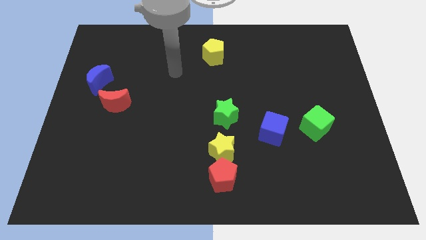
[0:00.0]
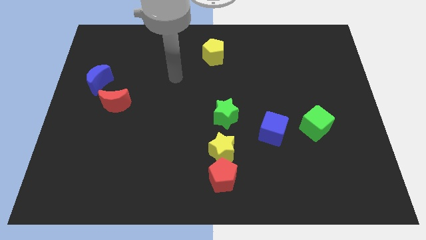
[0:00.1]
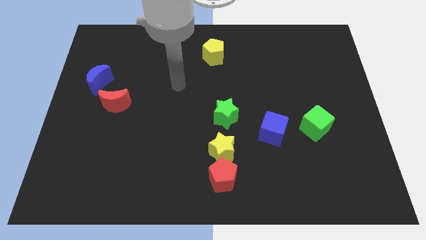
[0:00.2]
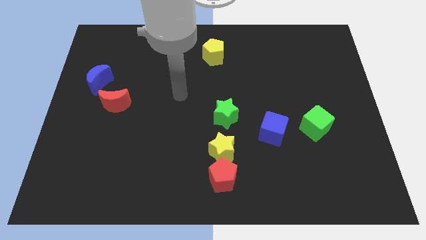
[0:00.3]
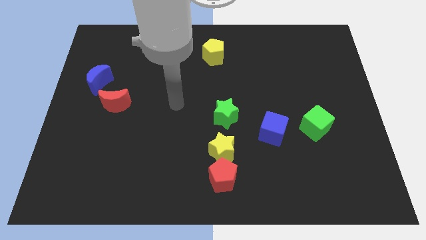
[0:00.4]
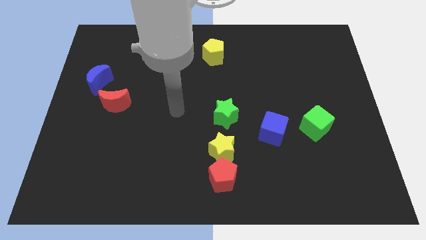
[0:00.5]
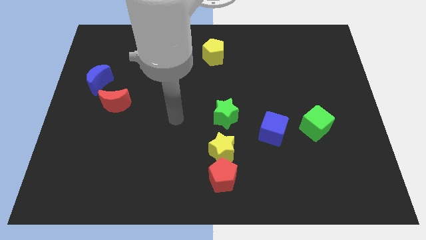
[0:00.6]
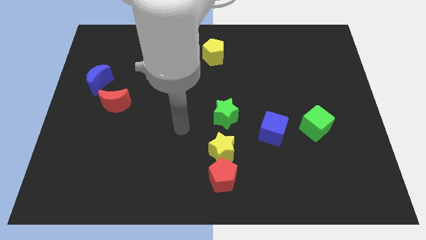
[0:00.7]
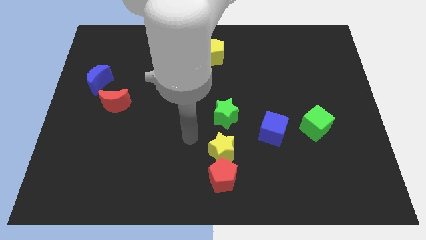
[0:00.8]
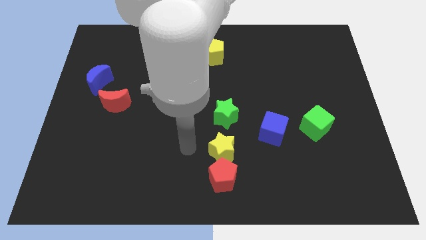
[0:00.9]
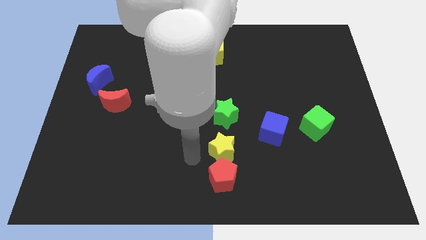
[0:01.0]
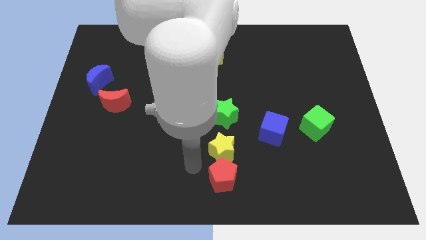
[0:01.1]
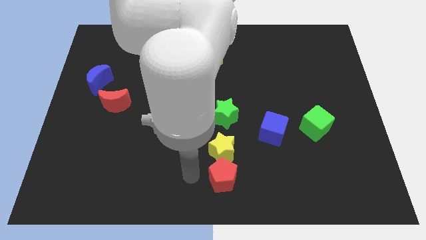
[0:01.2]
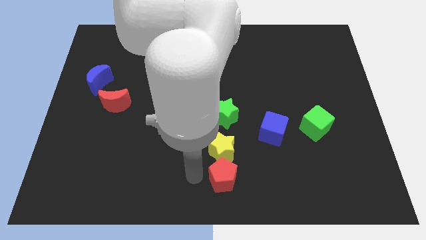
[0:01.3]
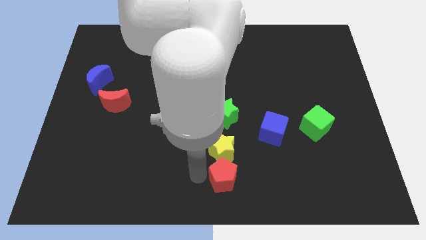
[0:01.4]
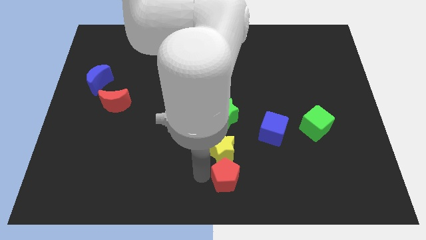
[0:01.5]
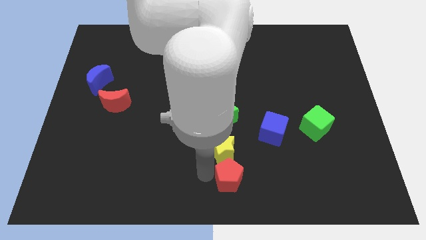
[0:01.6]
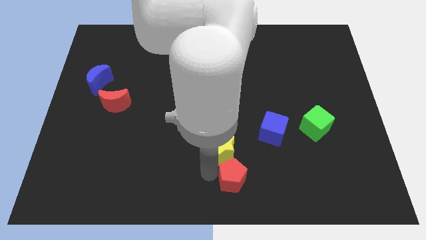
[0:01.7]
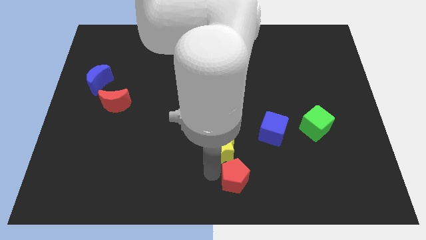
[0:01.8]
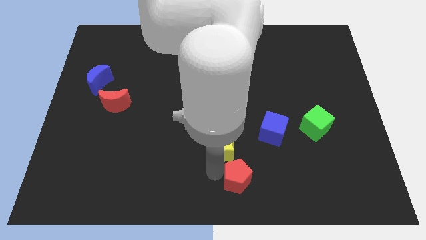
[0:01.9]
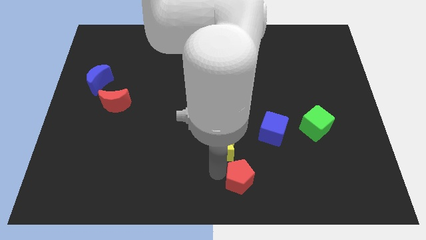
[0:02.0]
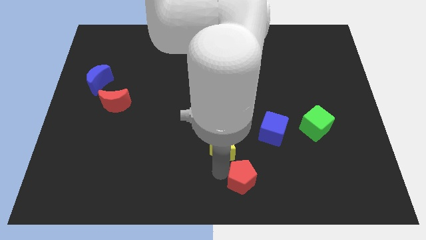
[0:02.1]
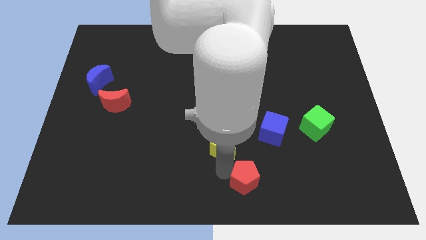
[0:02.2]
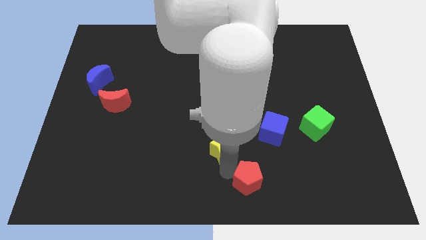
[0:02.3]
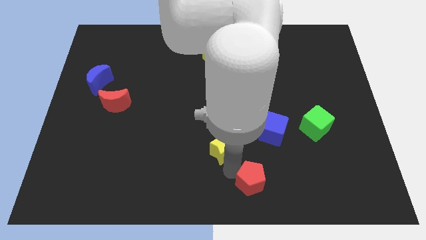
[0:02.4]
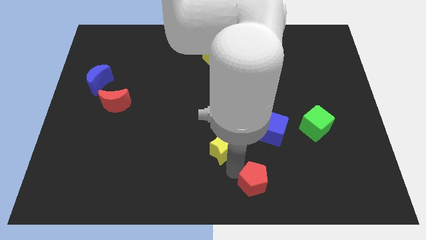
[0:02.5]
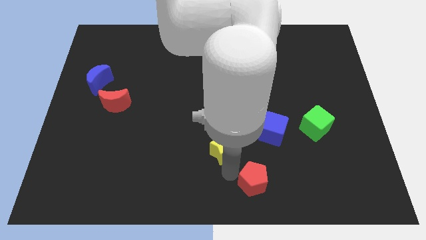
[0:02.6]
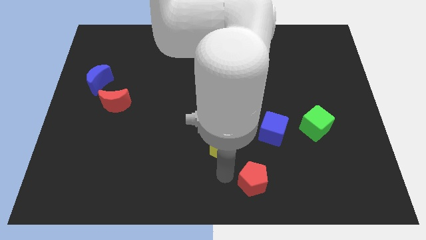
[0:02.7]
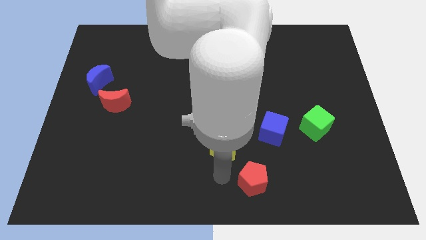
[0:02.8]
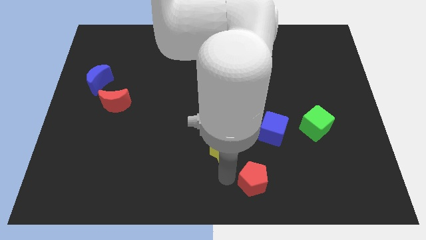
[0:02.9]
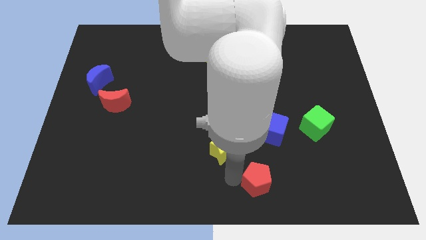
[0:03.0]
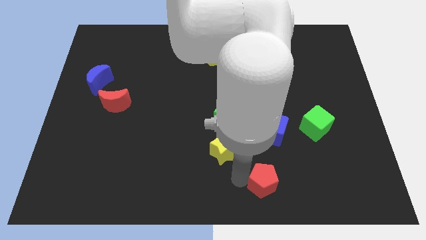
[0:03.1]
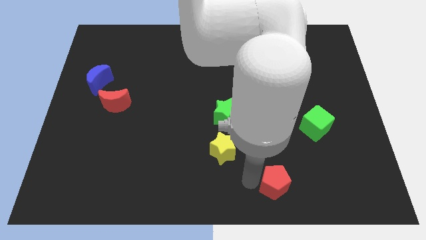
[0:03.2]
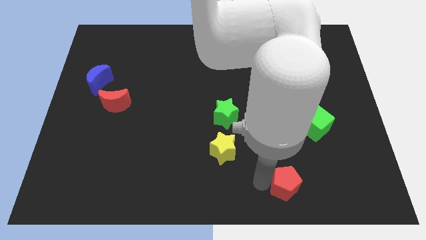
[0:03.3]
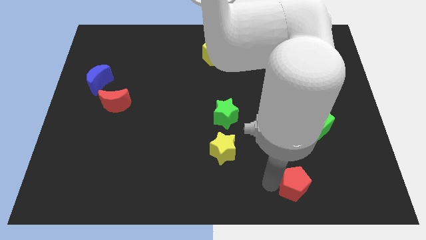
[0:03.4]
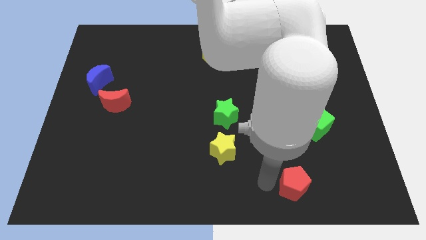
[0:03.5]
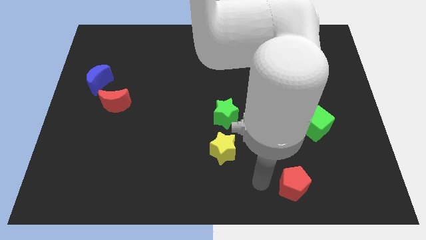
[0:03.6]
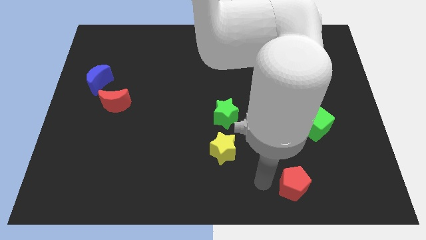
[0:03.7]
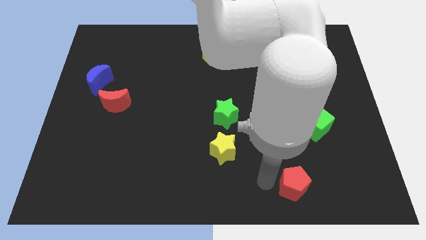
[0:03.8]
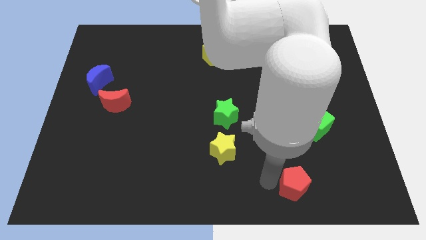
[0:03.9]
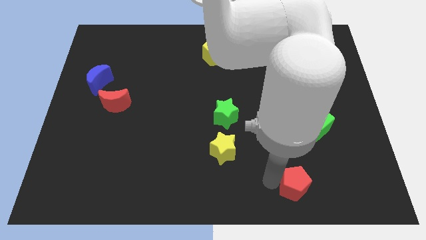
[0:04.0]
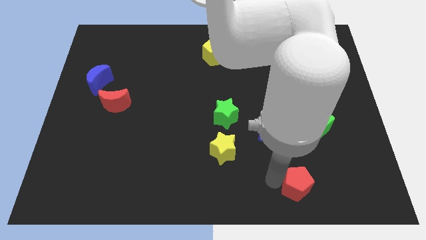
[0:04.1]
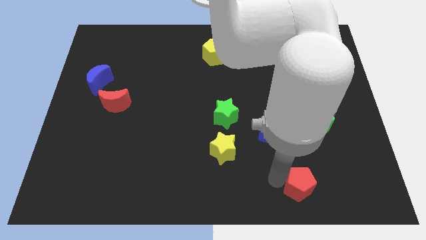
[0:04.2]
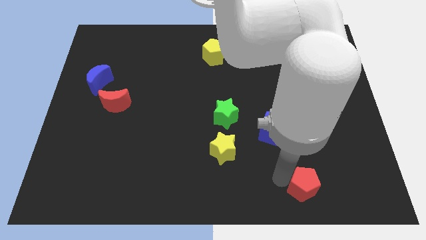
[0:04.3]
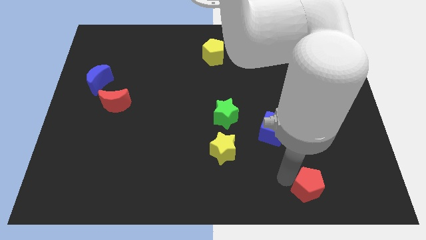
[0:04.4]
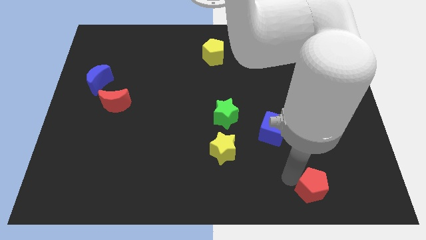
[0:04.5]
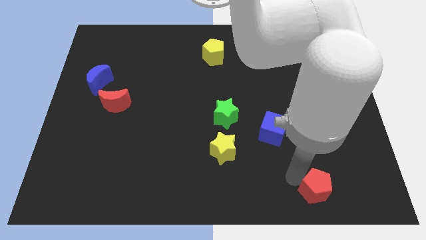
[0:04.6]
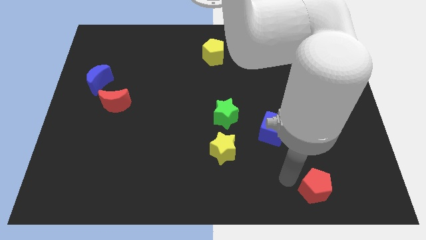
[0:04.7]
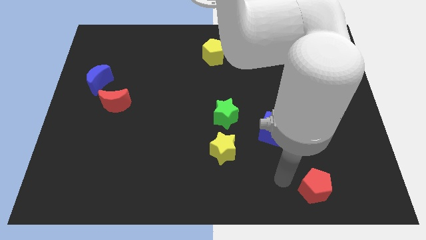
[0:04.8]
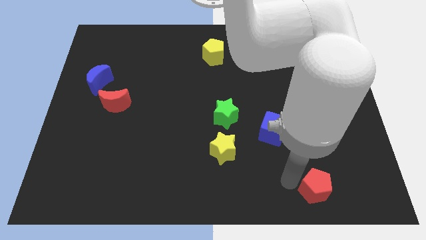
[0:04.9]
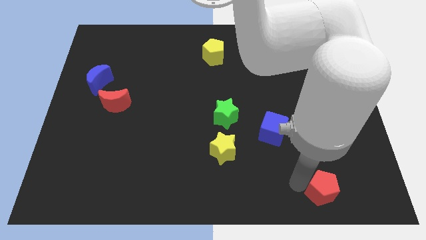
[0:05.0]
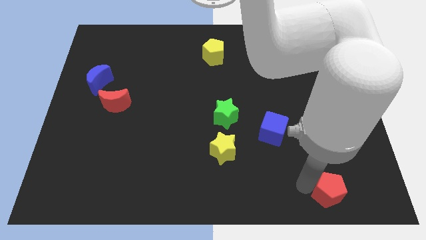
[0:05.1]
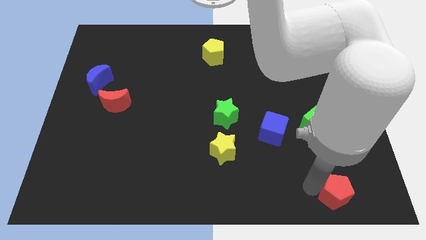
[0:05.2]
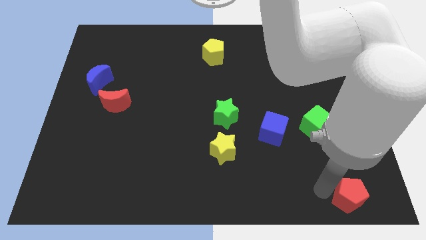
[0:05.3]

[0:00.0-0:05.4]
put the red pentagon to the bottom right

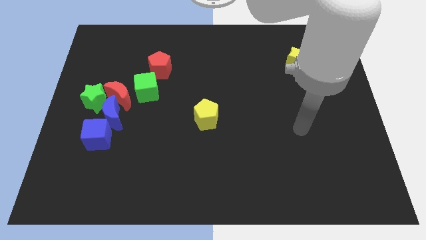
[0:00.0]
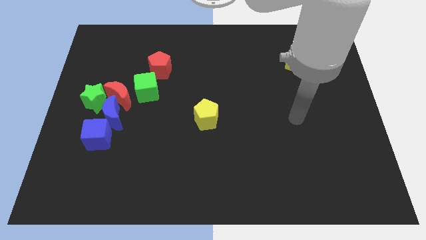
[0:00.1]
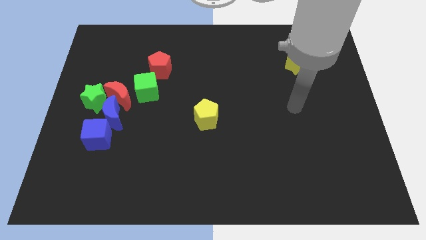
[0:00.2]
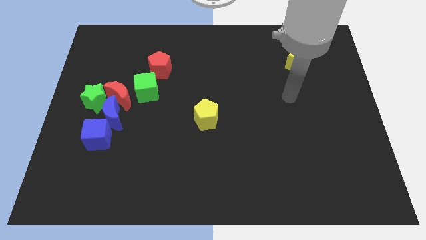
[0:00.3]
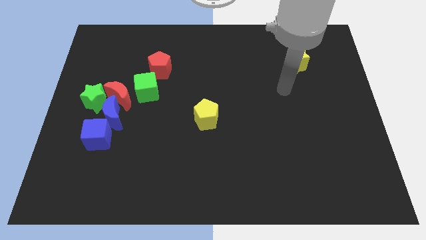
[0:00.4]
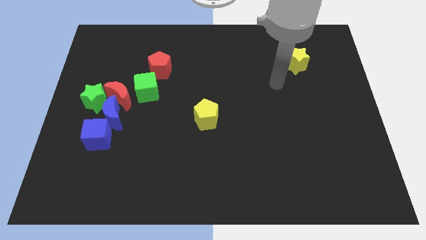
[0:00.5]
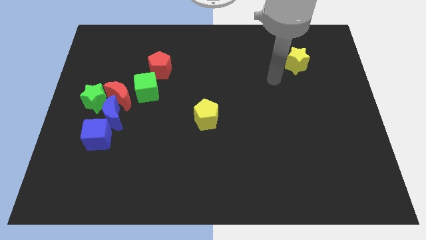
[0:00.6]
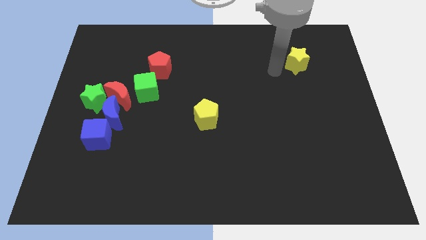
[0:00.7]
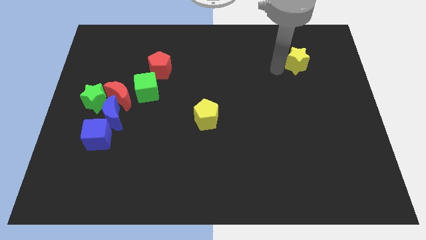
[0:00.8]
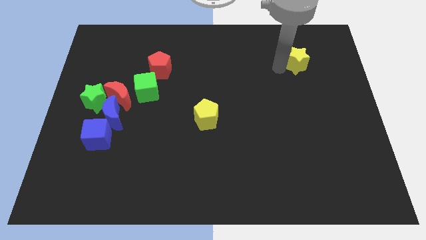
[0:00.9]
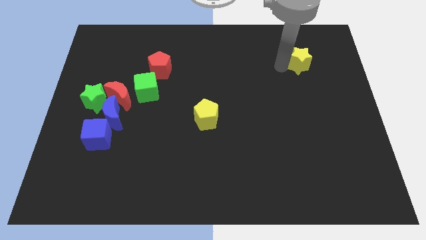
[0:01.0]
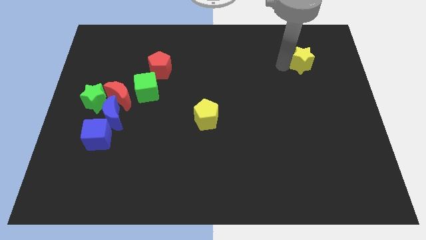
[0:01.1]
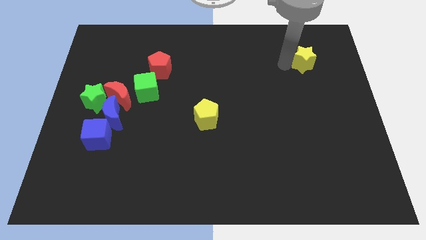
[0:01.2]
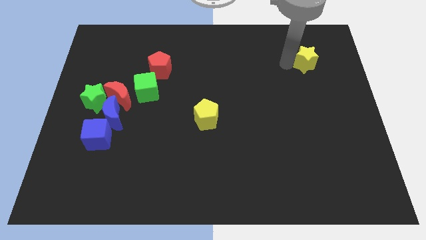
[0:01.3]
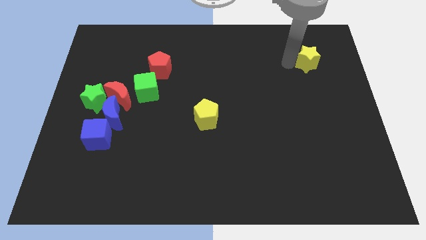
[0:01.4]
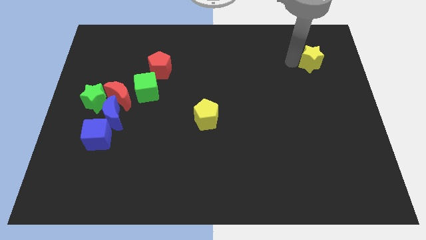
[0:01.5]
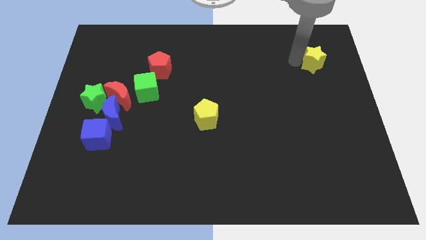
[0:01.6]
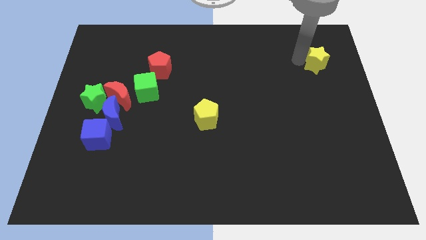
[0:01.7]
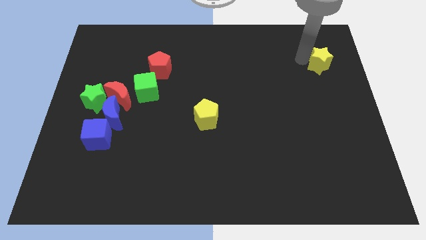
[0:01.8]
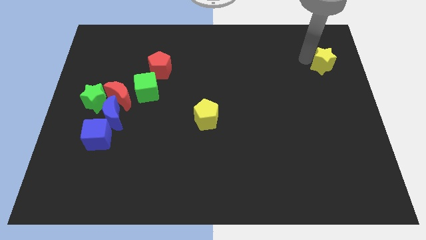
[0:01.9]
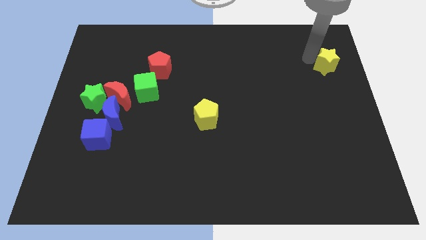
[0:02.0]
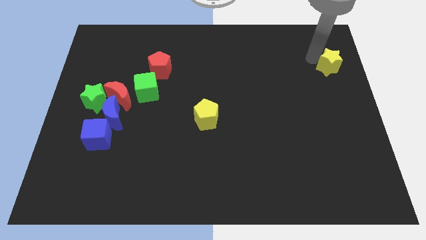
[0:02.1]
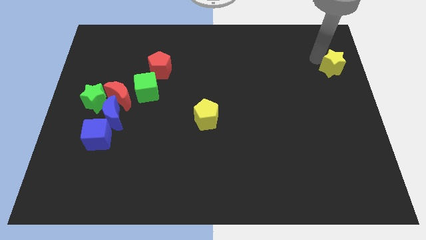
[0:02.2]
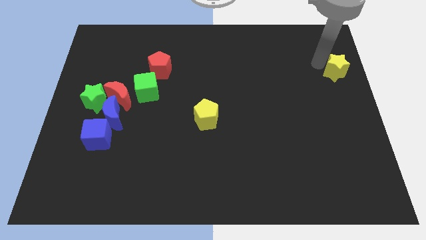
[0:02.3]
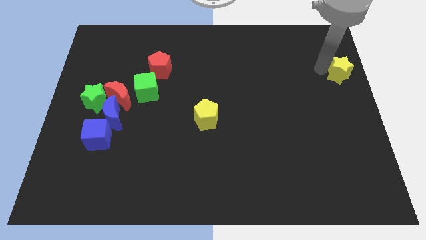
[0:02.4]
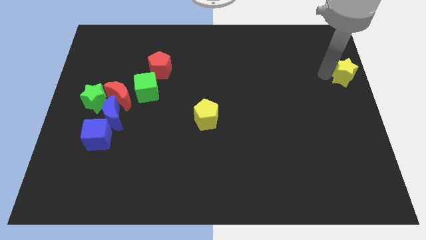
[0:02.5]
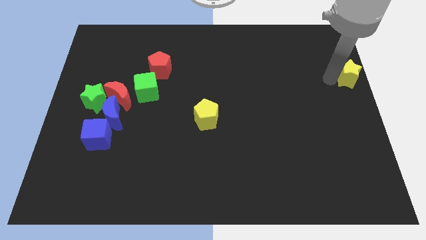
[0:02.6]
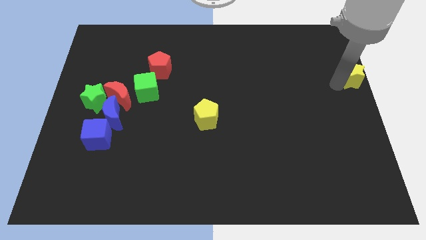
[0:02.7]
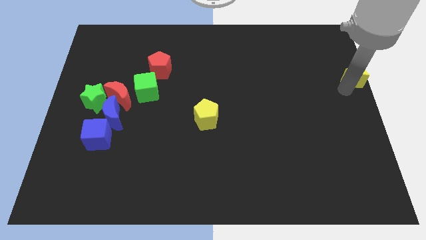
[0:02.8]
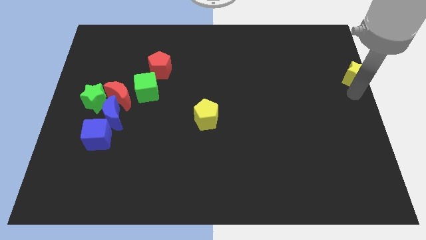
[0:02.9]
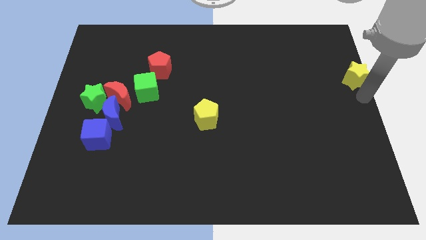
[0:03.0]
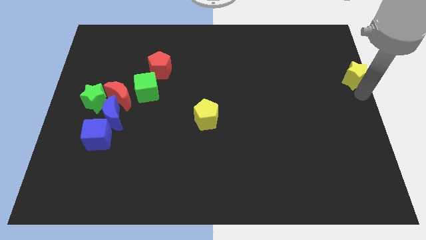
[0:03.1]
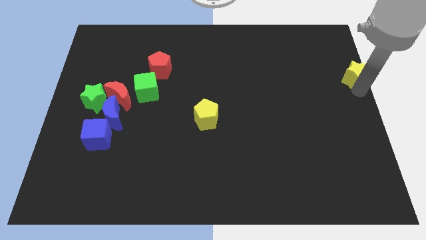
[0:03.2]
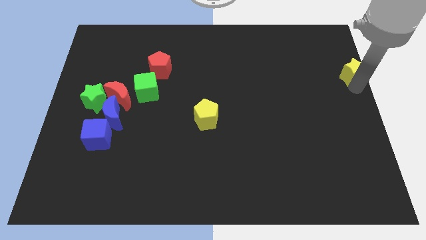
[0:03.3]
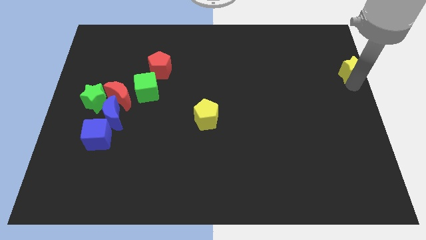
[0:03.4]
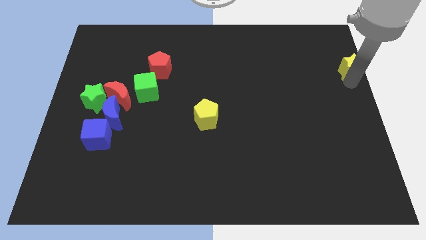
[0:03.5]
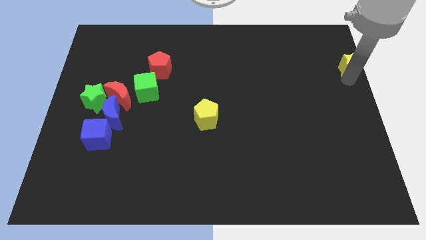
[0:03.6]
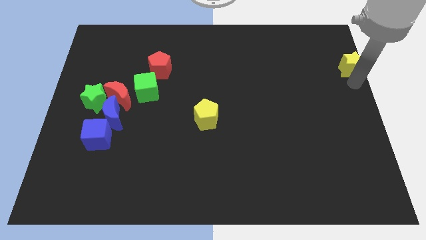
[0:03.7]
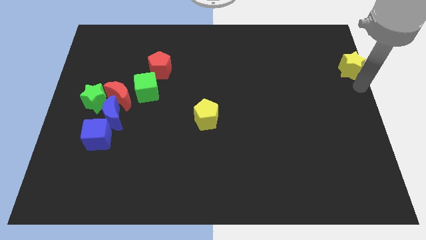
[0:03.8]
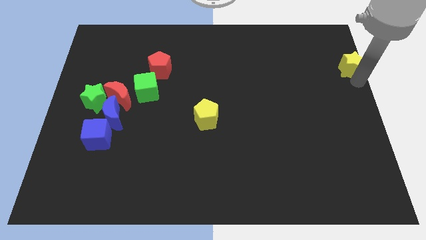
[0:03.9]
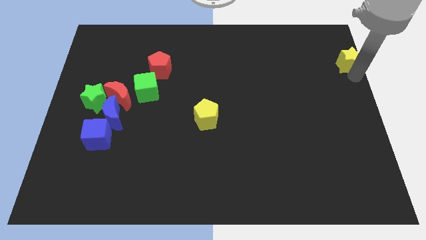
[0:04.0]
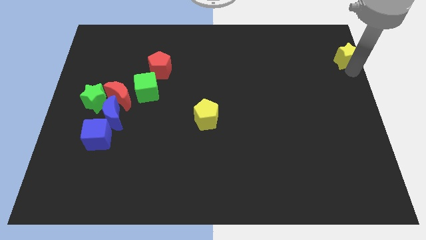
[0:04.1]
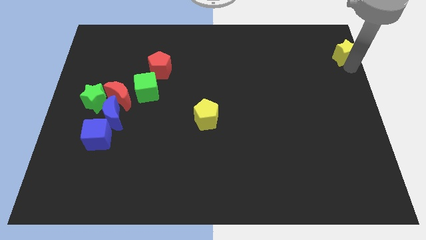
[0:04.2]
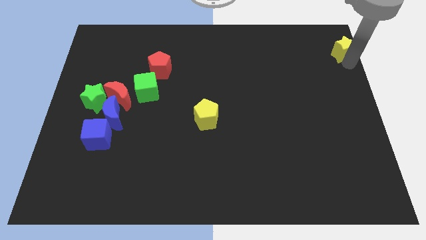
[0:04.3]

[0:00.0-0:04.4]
slide the yellow star to the top right
